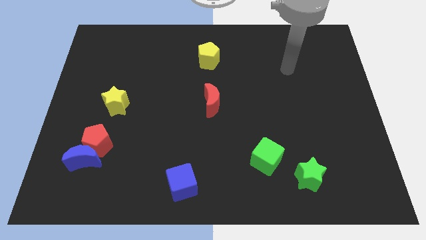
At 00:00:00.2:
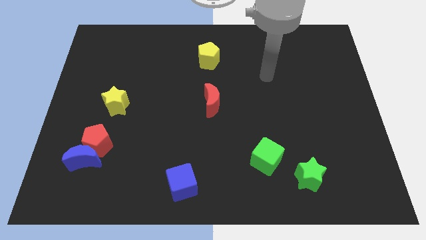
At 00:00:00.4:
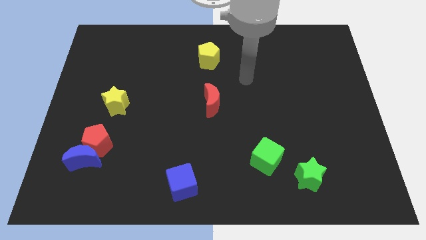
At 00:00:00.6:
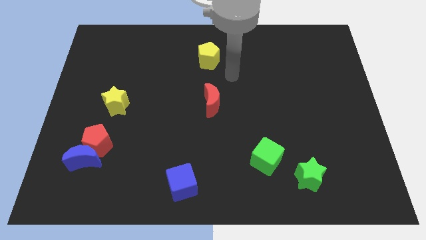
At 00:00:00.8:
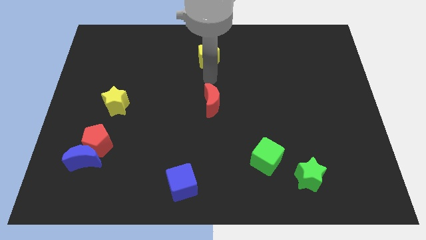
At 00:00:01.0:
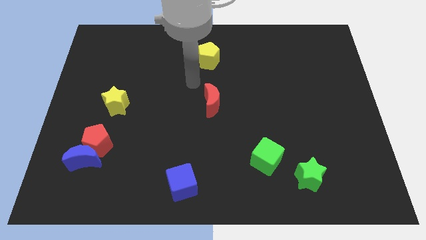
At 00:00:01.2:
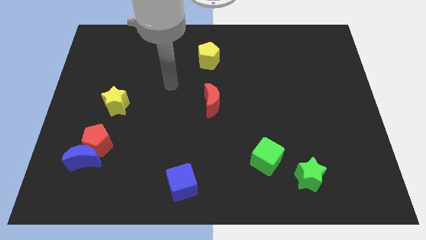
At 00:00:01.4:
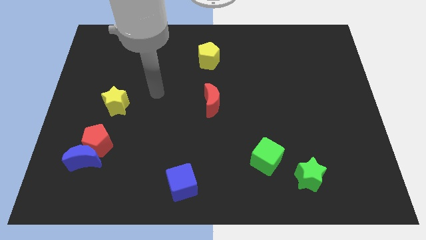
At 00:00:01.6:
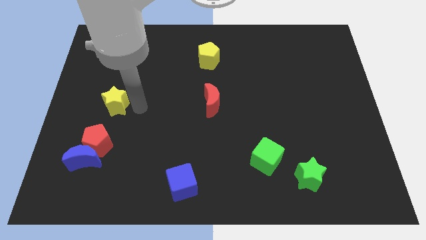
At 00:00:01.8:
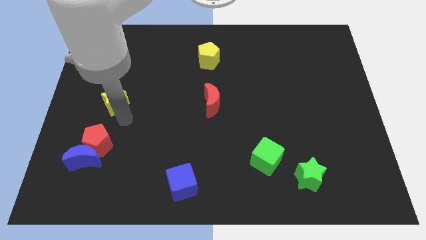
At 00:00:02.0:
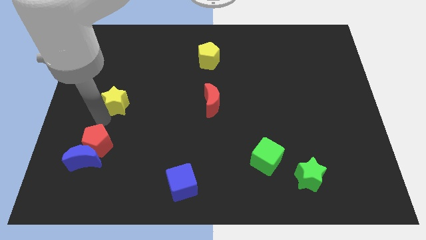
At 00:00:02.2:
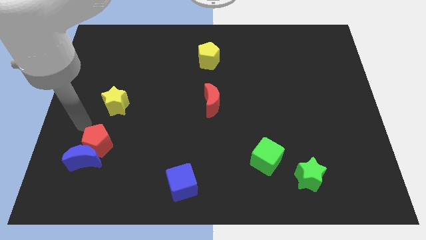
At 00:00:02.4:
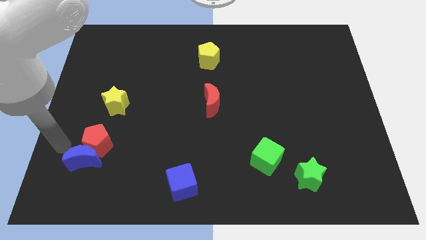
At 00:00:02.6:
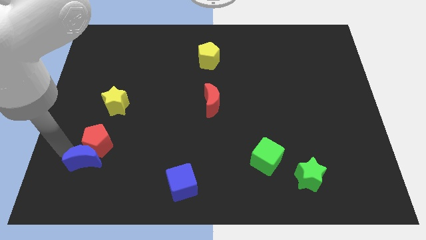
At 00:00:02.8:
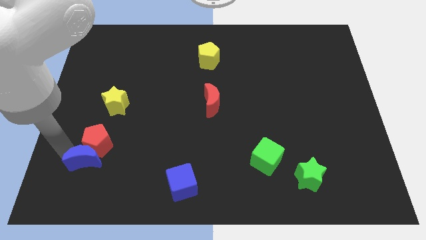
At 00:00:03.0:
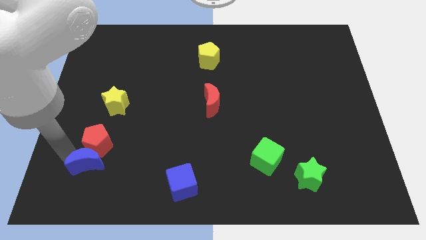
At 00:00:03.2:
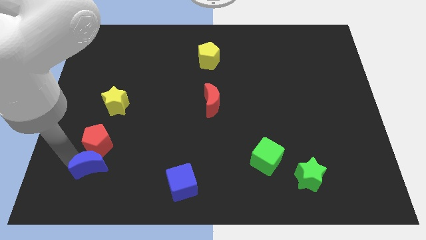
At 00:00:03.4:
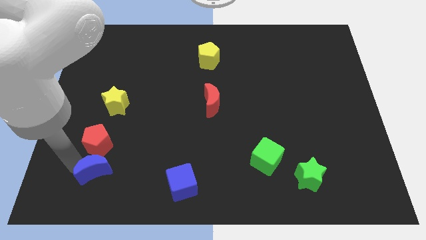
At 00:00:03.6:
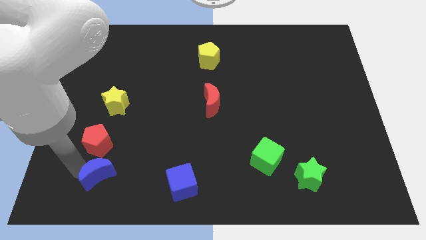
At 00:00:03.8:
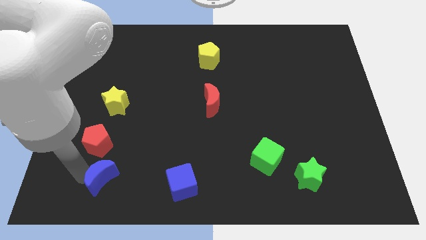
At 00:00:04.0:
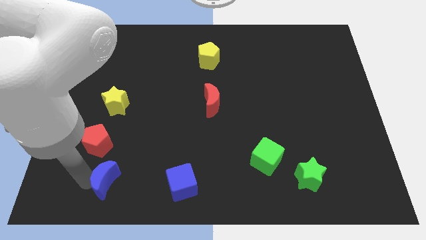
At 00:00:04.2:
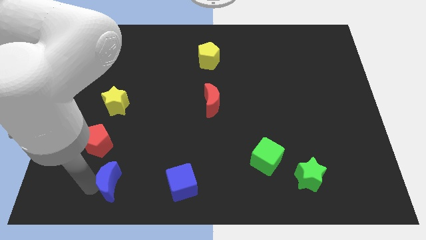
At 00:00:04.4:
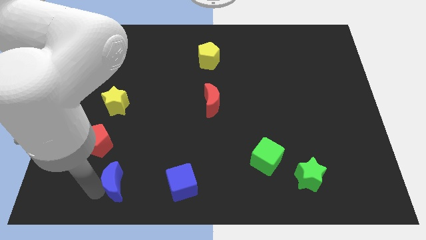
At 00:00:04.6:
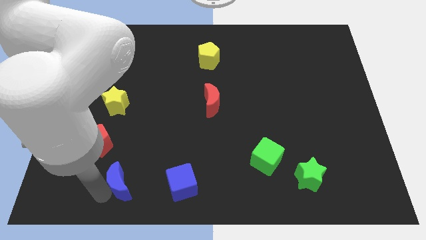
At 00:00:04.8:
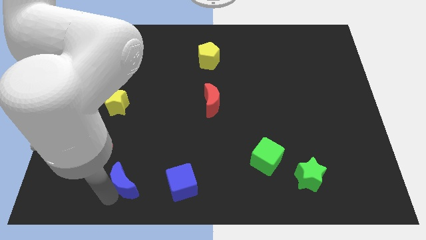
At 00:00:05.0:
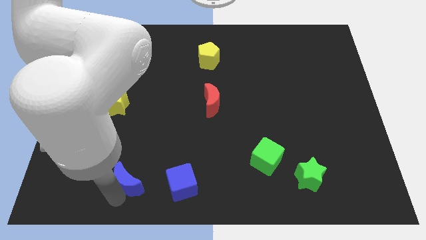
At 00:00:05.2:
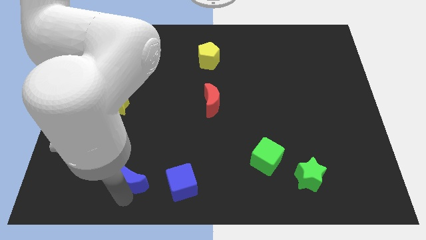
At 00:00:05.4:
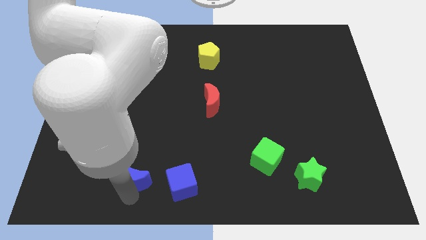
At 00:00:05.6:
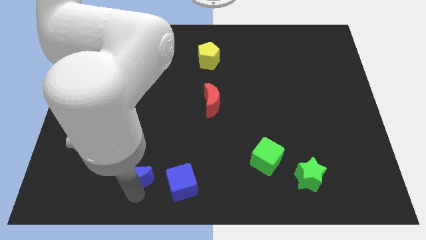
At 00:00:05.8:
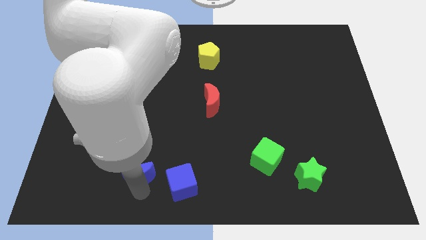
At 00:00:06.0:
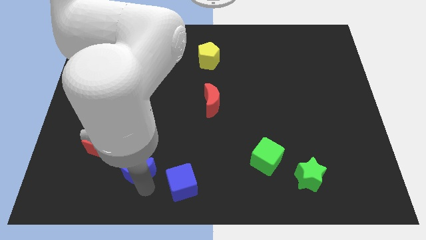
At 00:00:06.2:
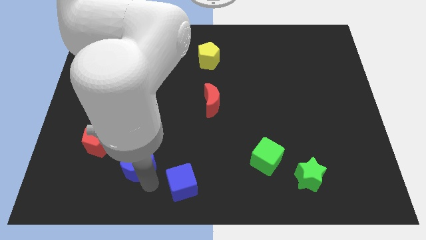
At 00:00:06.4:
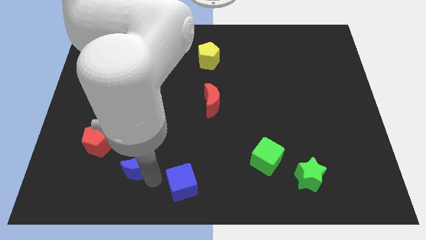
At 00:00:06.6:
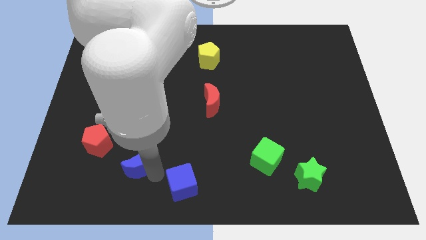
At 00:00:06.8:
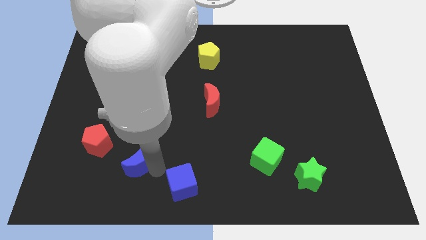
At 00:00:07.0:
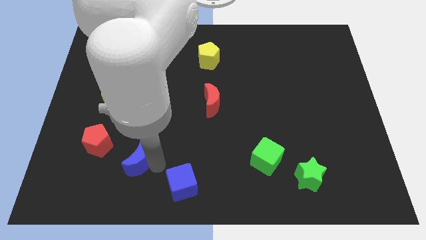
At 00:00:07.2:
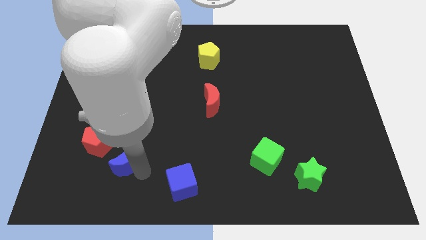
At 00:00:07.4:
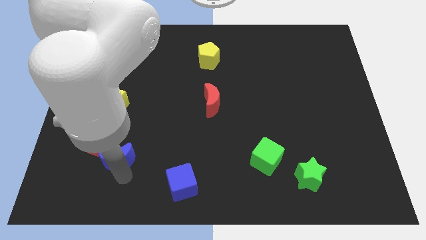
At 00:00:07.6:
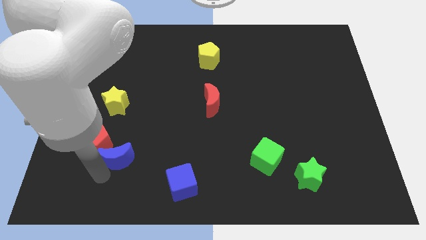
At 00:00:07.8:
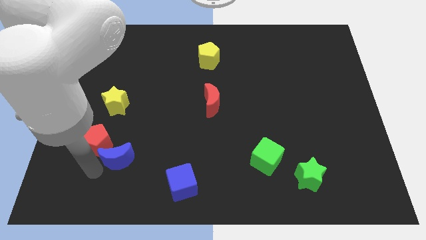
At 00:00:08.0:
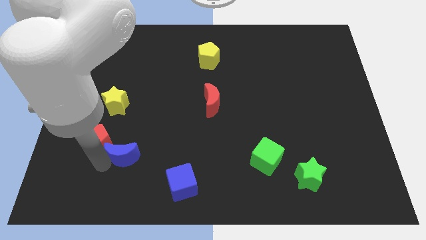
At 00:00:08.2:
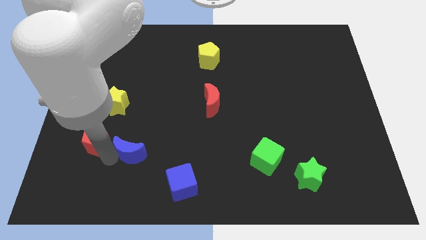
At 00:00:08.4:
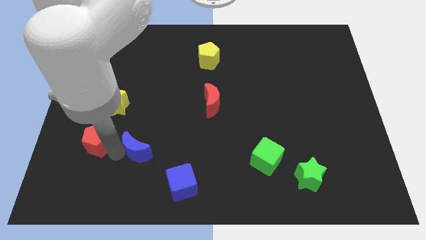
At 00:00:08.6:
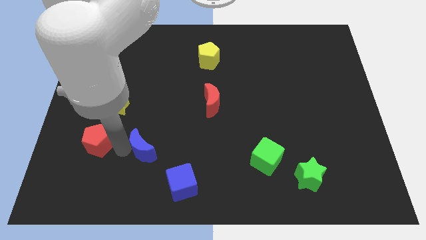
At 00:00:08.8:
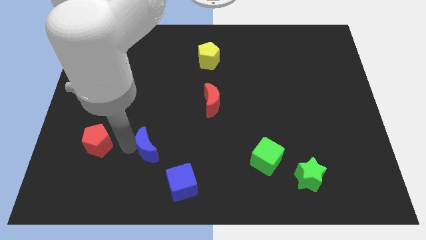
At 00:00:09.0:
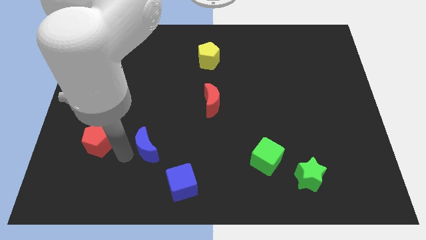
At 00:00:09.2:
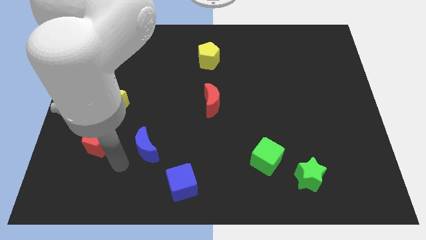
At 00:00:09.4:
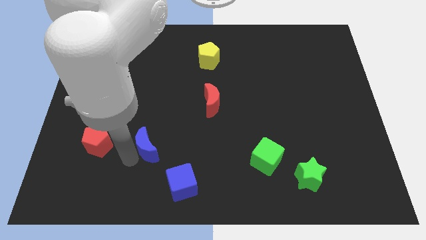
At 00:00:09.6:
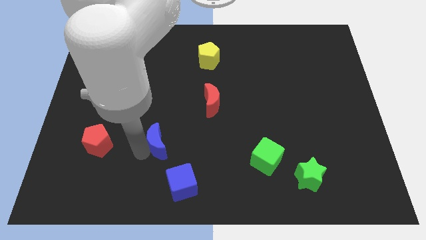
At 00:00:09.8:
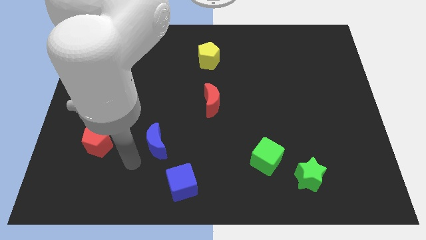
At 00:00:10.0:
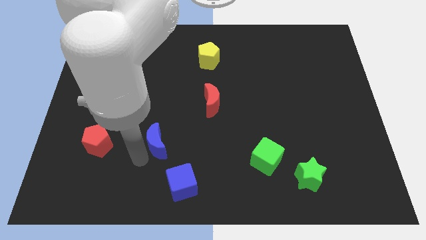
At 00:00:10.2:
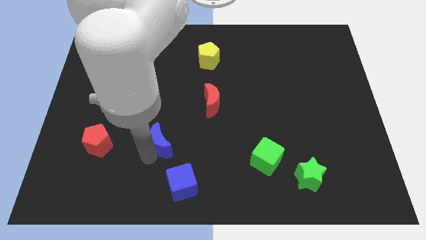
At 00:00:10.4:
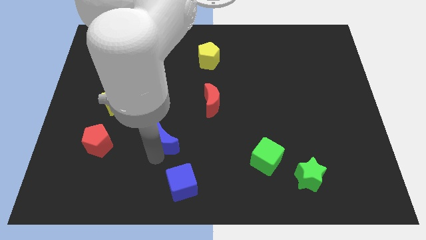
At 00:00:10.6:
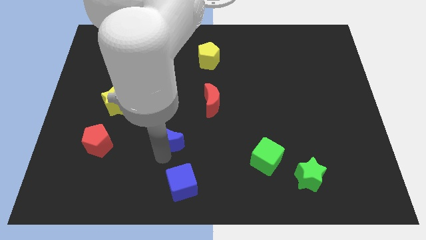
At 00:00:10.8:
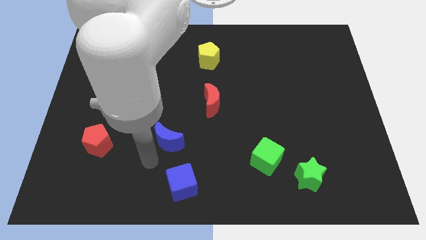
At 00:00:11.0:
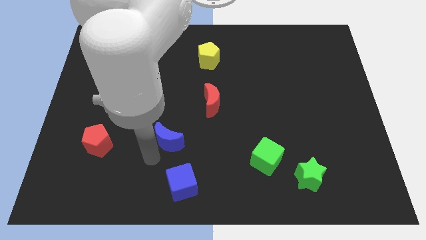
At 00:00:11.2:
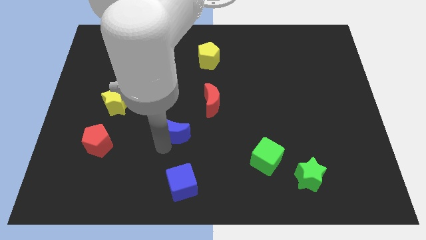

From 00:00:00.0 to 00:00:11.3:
slide the blue moon diagonally down and to the left of the red moon

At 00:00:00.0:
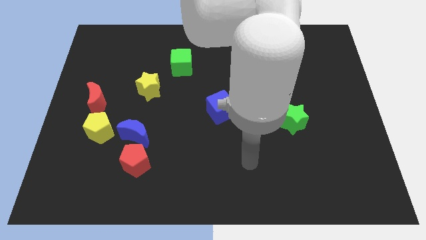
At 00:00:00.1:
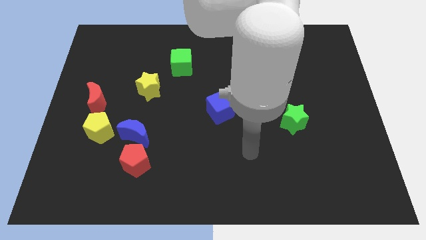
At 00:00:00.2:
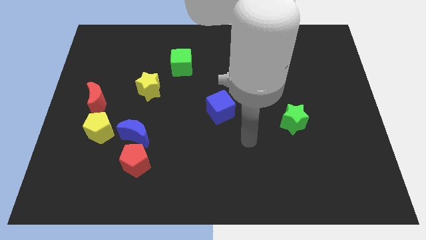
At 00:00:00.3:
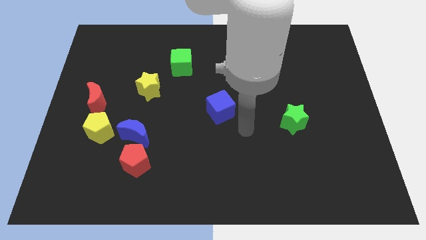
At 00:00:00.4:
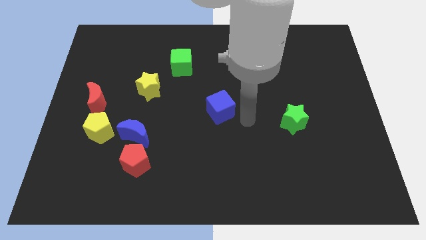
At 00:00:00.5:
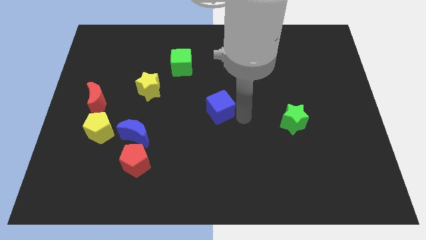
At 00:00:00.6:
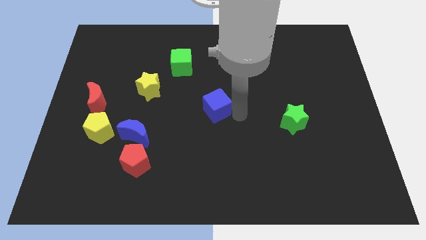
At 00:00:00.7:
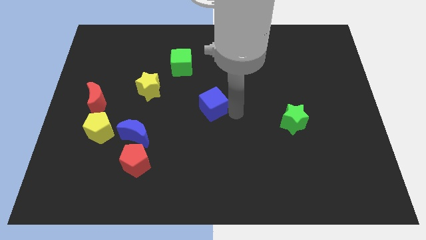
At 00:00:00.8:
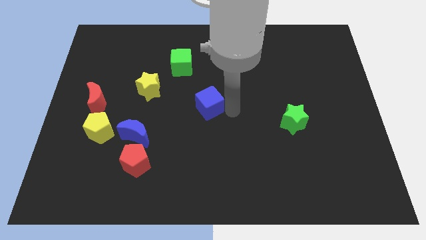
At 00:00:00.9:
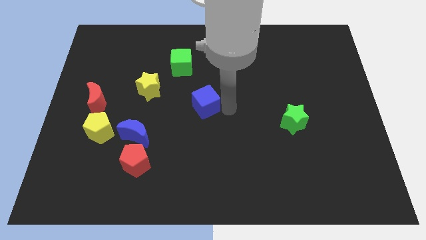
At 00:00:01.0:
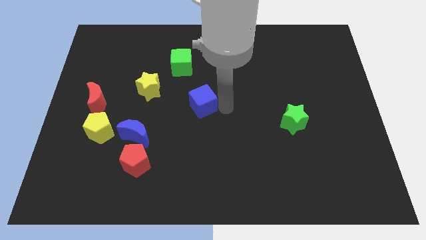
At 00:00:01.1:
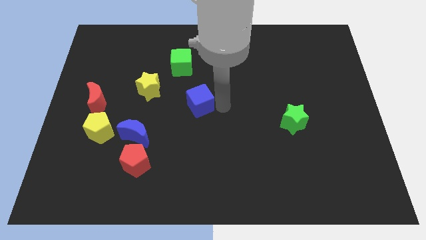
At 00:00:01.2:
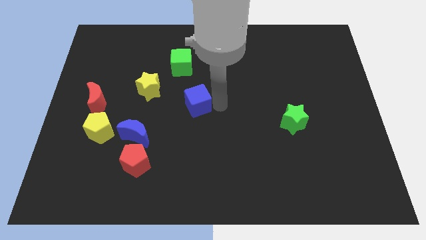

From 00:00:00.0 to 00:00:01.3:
slide the blue cube below the green cube

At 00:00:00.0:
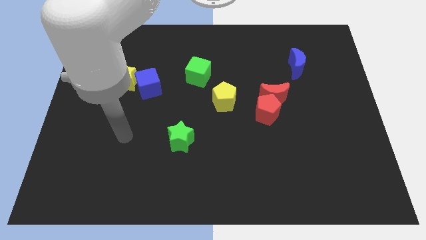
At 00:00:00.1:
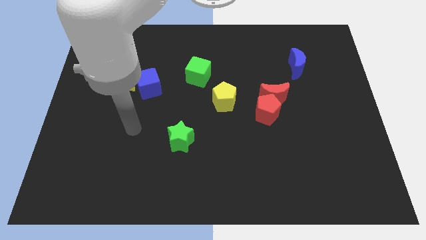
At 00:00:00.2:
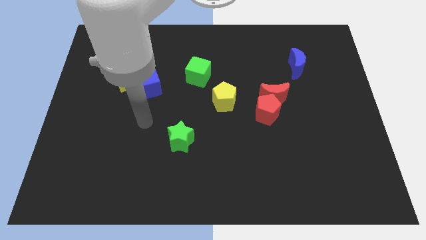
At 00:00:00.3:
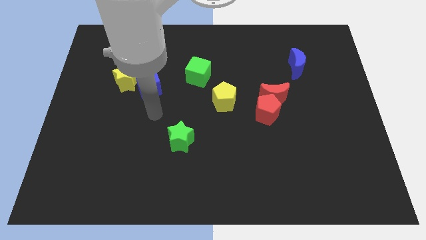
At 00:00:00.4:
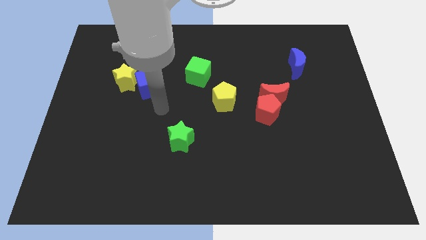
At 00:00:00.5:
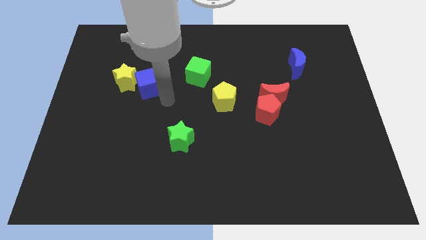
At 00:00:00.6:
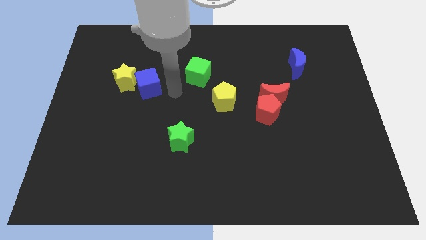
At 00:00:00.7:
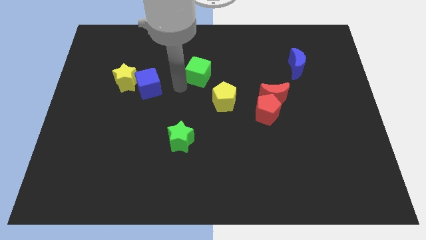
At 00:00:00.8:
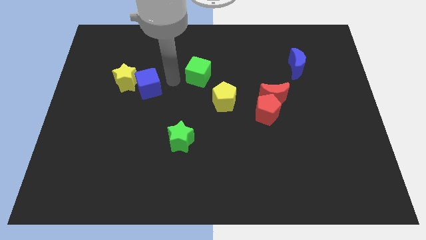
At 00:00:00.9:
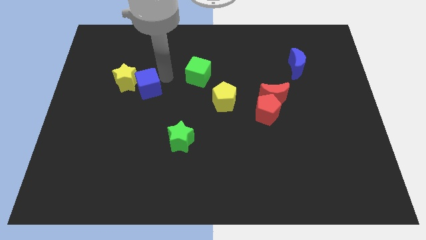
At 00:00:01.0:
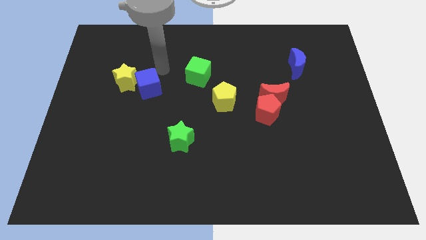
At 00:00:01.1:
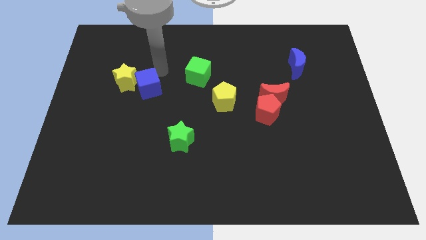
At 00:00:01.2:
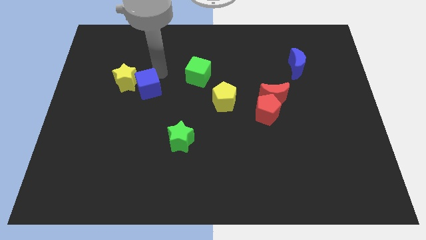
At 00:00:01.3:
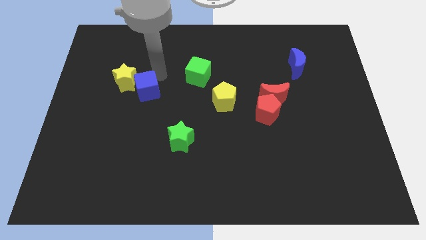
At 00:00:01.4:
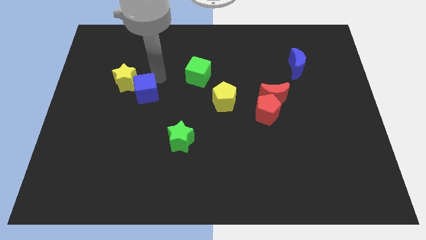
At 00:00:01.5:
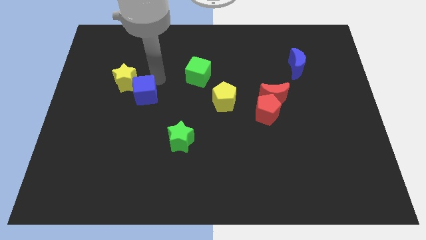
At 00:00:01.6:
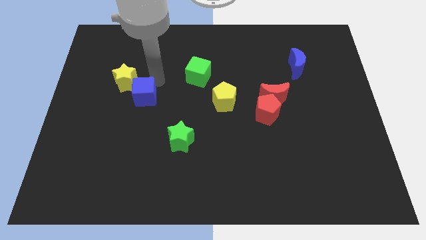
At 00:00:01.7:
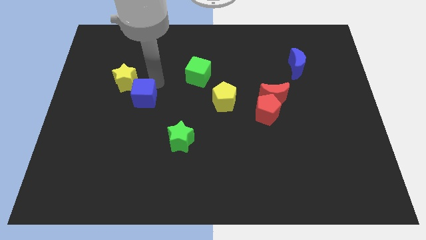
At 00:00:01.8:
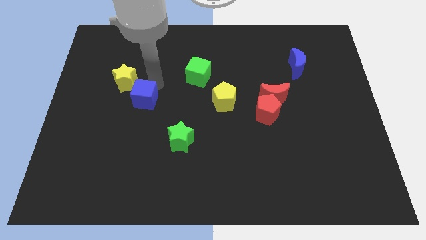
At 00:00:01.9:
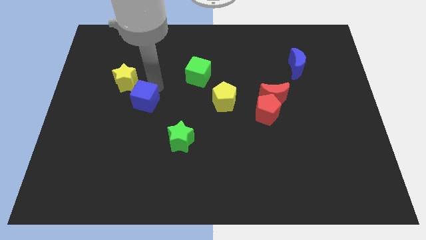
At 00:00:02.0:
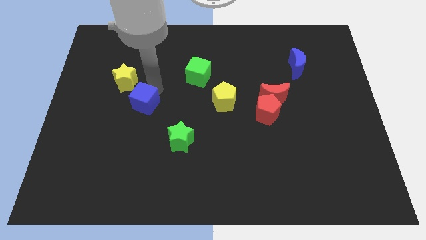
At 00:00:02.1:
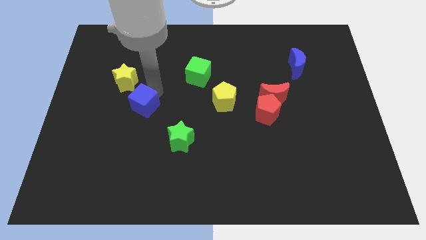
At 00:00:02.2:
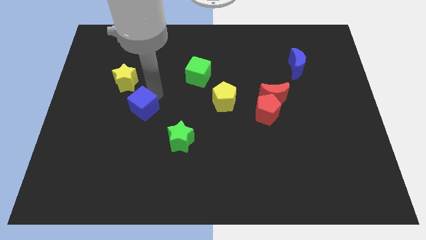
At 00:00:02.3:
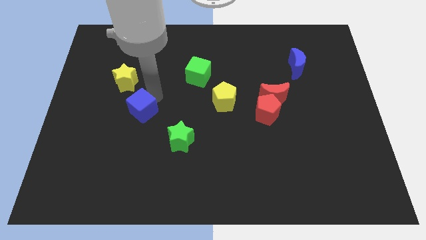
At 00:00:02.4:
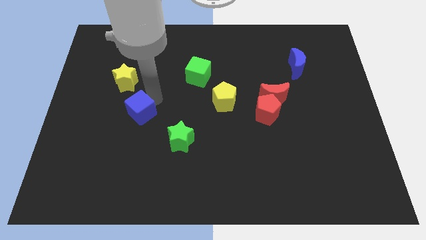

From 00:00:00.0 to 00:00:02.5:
put the blue cube below the yellow star
